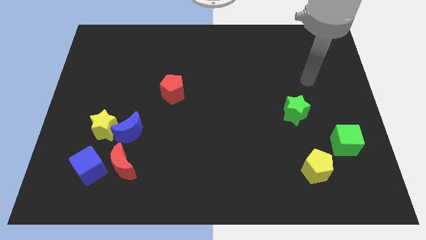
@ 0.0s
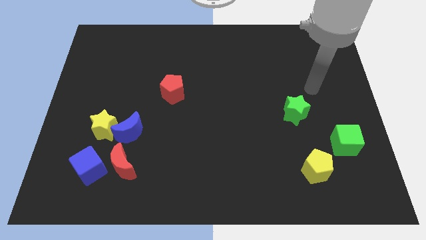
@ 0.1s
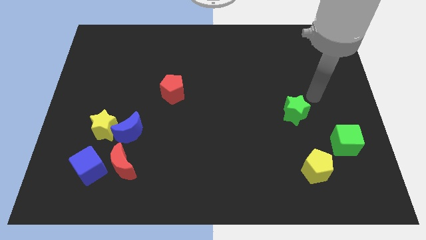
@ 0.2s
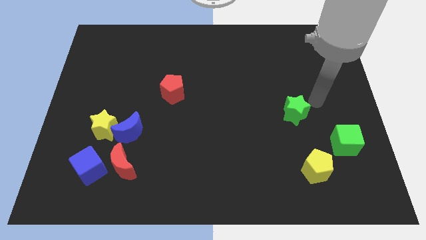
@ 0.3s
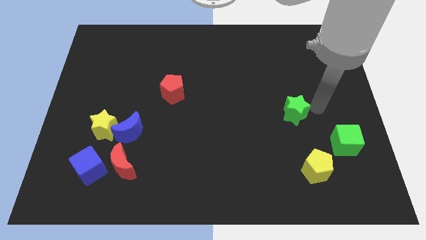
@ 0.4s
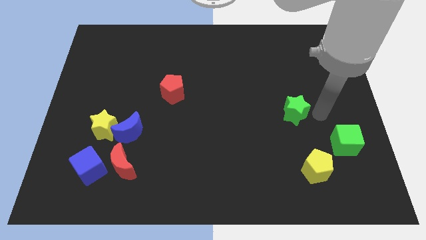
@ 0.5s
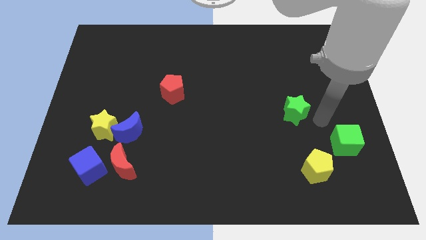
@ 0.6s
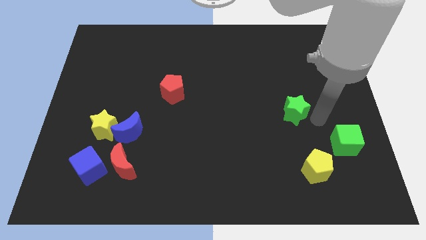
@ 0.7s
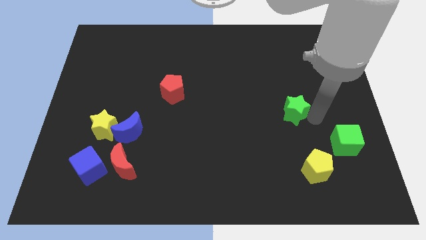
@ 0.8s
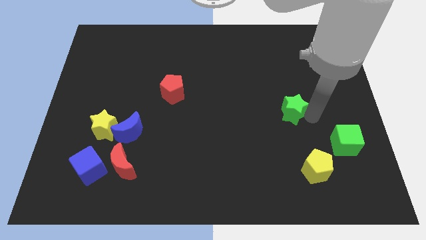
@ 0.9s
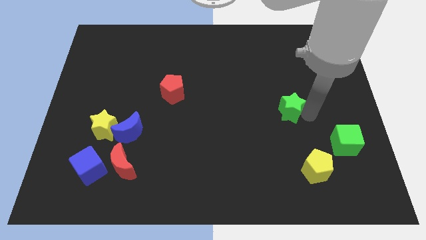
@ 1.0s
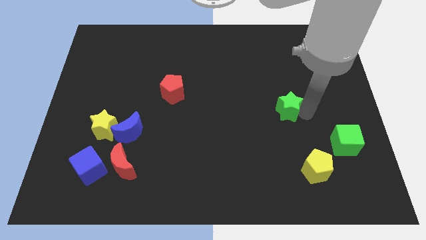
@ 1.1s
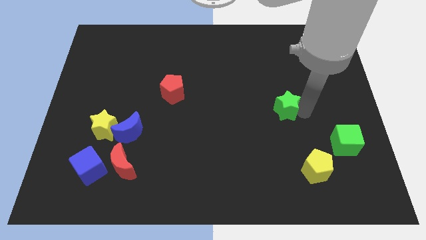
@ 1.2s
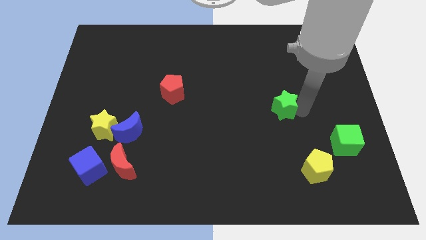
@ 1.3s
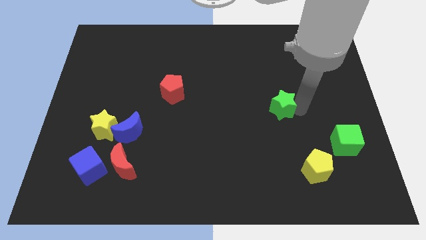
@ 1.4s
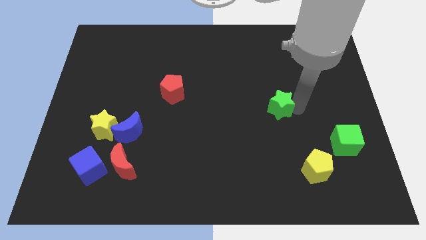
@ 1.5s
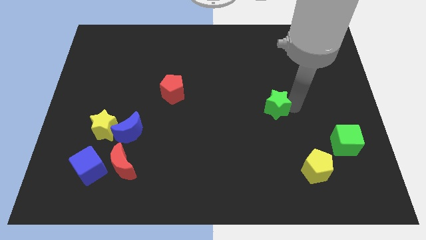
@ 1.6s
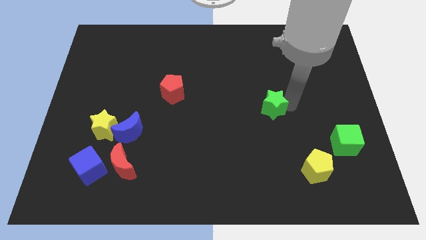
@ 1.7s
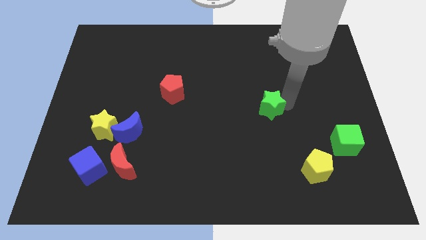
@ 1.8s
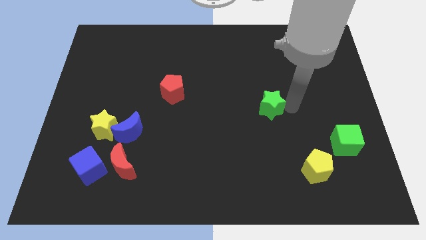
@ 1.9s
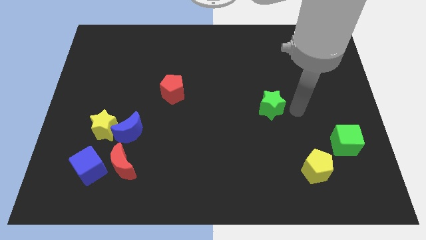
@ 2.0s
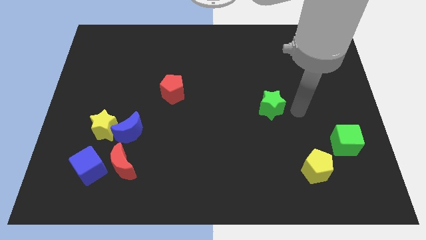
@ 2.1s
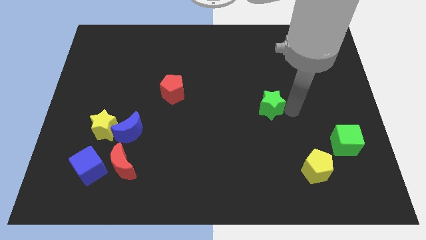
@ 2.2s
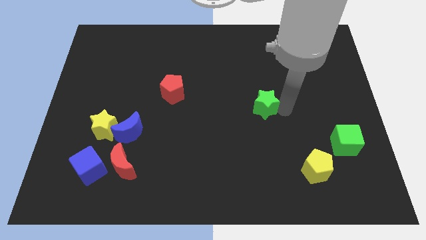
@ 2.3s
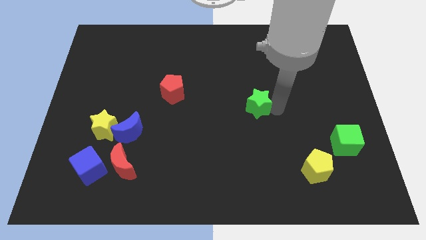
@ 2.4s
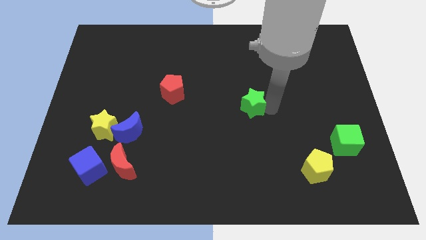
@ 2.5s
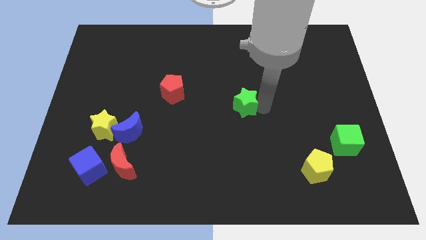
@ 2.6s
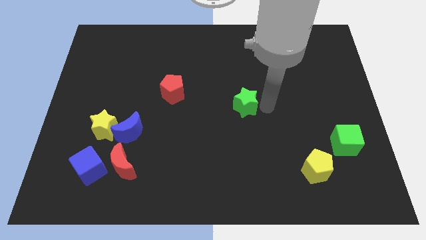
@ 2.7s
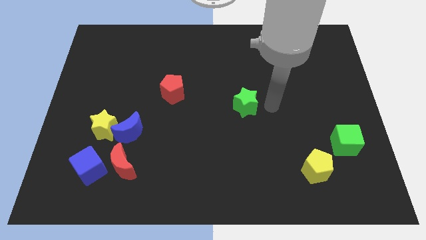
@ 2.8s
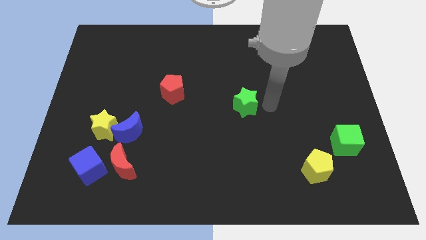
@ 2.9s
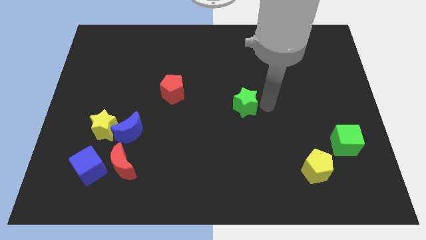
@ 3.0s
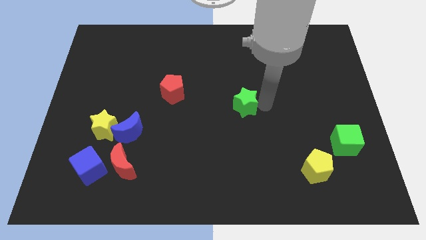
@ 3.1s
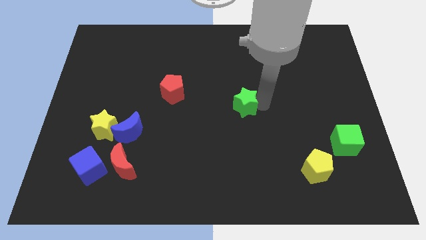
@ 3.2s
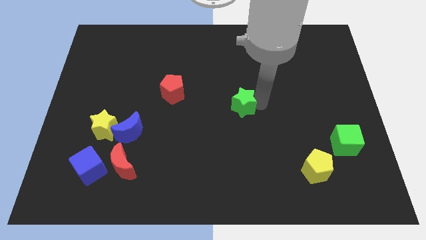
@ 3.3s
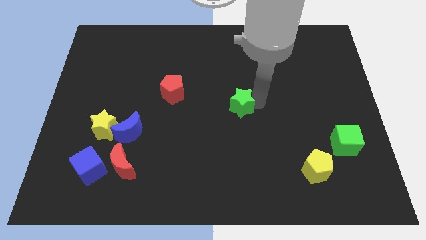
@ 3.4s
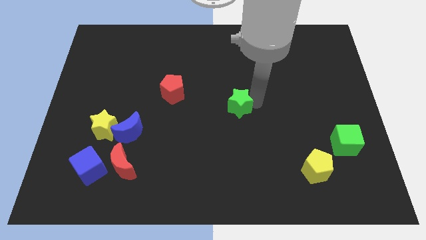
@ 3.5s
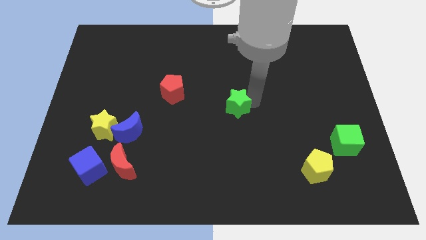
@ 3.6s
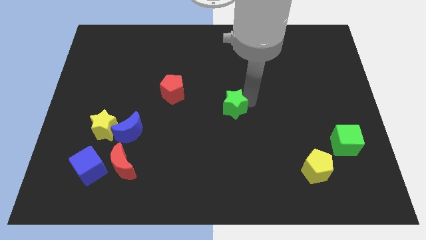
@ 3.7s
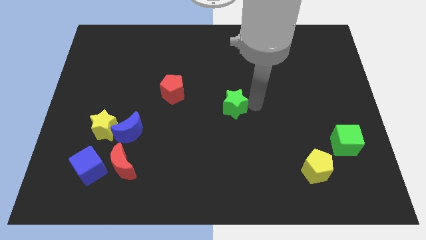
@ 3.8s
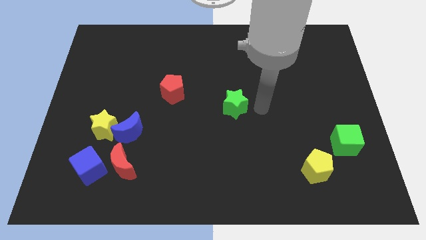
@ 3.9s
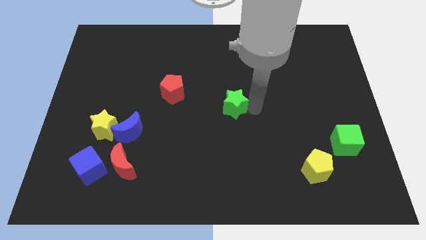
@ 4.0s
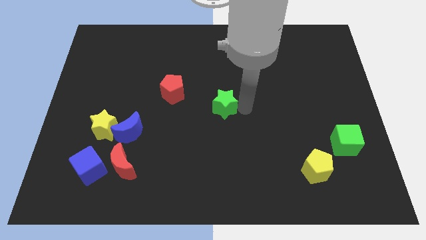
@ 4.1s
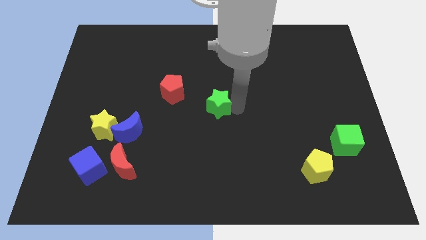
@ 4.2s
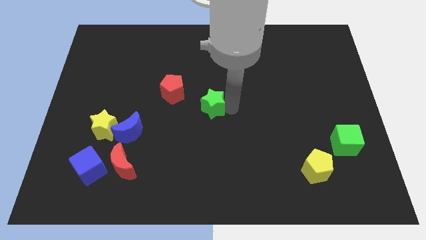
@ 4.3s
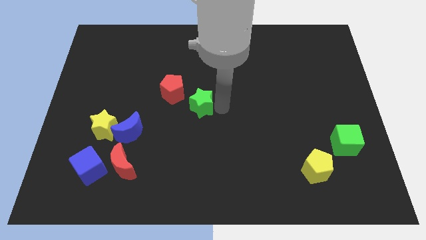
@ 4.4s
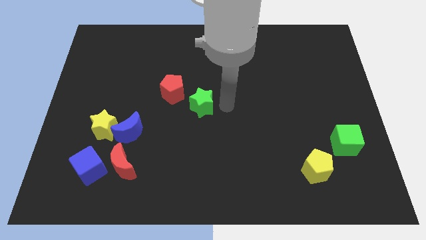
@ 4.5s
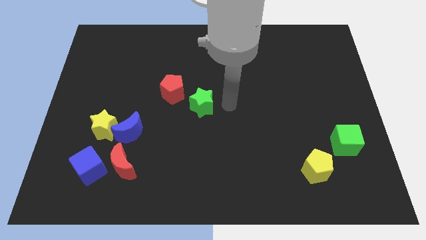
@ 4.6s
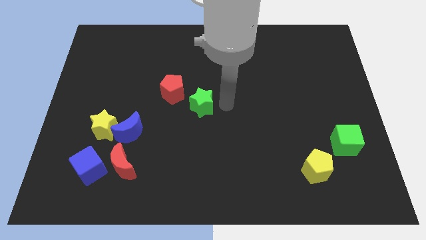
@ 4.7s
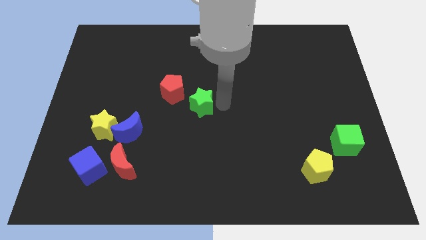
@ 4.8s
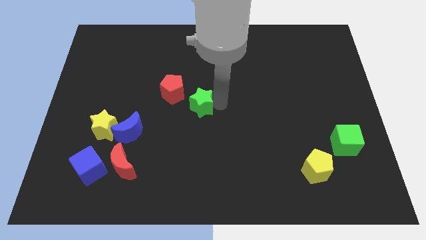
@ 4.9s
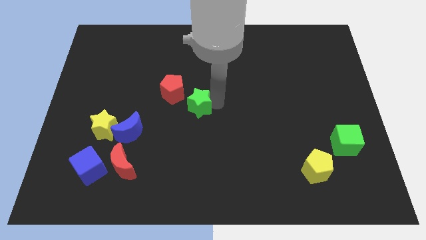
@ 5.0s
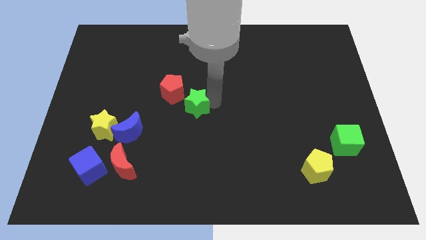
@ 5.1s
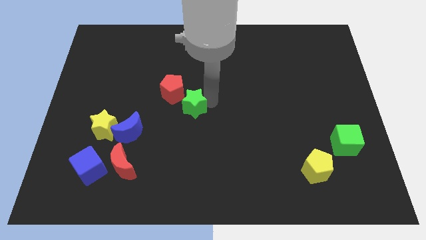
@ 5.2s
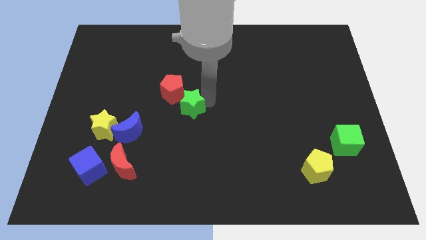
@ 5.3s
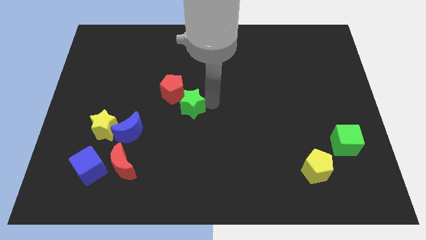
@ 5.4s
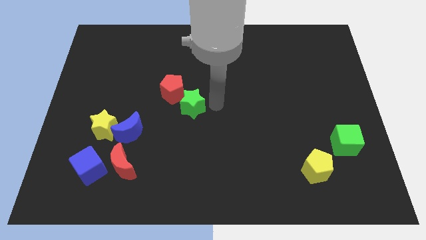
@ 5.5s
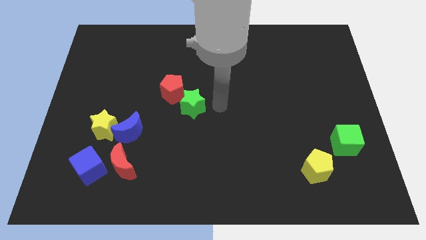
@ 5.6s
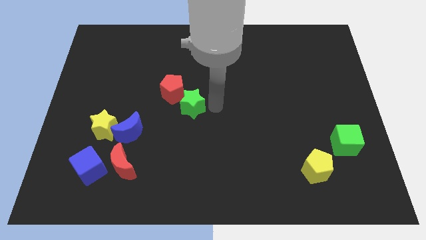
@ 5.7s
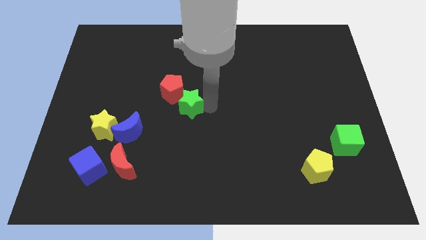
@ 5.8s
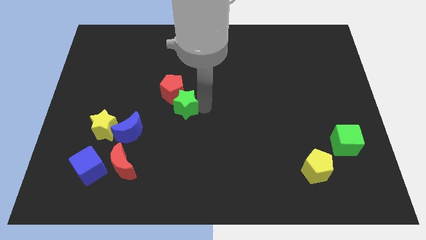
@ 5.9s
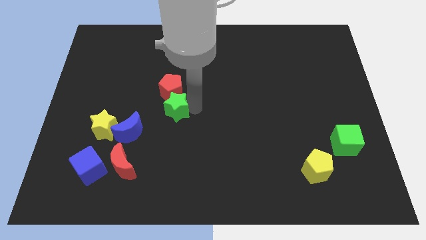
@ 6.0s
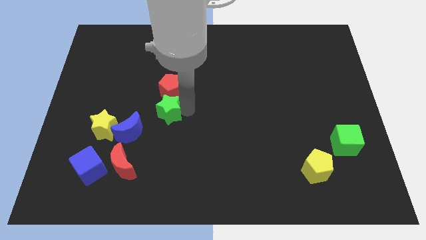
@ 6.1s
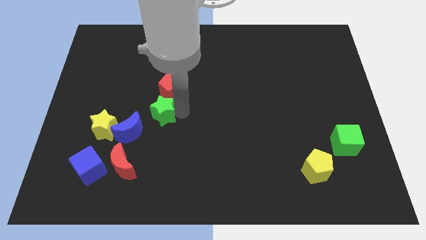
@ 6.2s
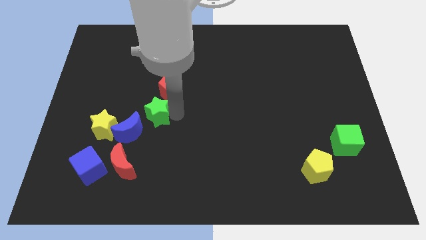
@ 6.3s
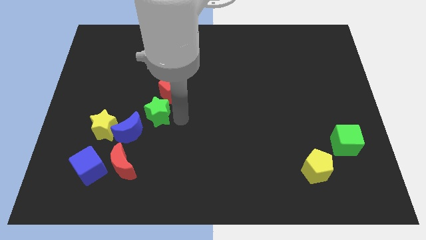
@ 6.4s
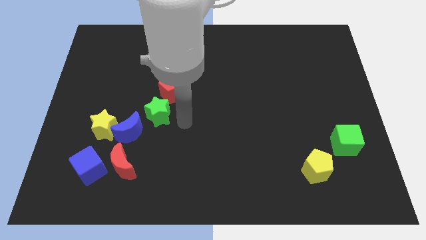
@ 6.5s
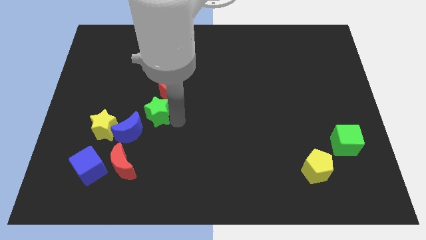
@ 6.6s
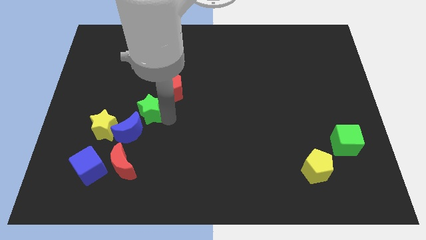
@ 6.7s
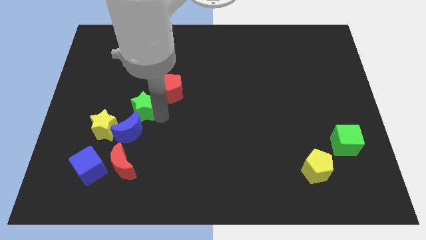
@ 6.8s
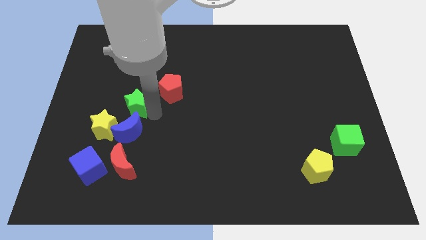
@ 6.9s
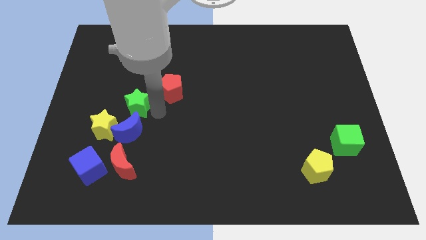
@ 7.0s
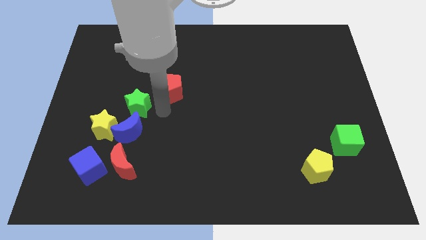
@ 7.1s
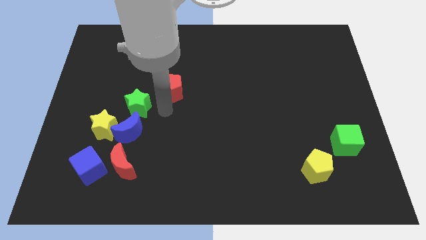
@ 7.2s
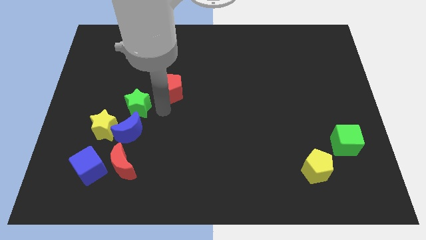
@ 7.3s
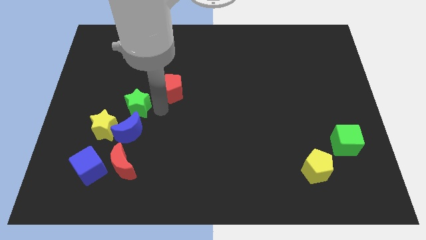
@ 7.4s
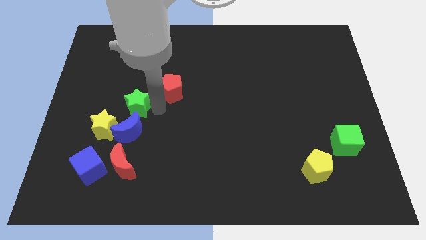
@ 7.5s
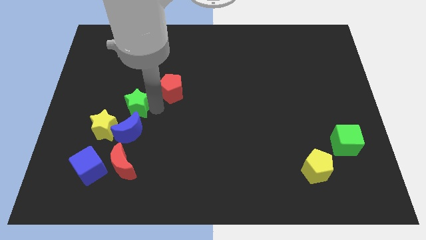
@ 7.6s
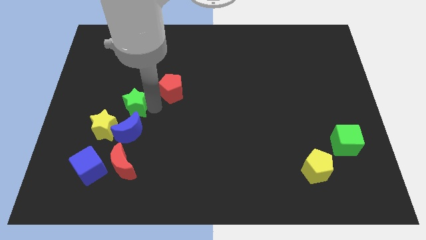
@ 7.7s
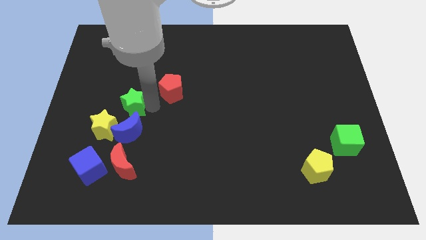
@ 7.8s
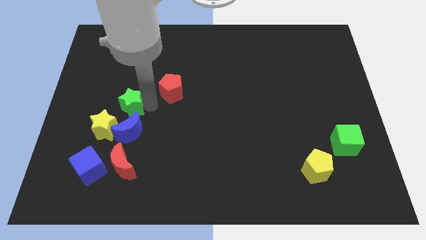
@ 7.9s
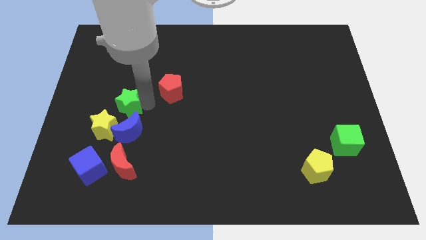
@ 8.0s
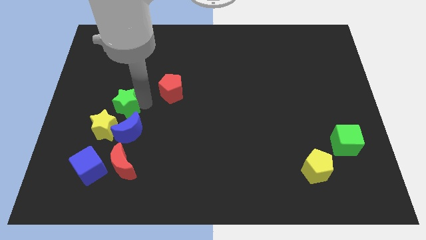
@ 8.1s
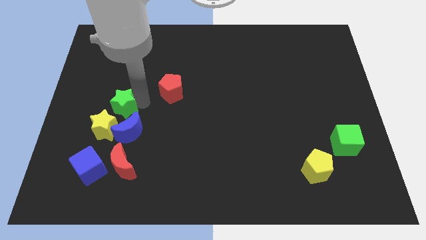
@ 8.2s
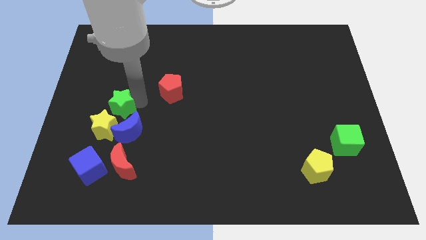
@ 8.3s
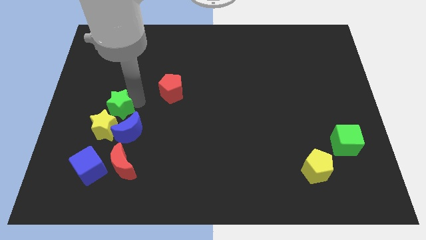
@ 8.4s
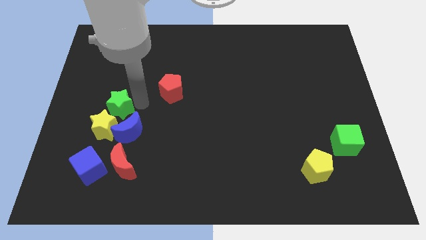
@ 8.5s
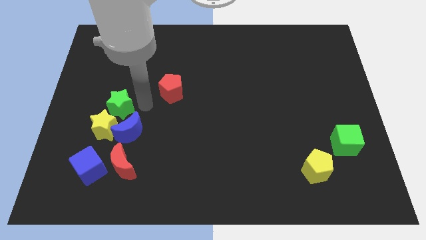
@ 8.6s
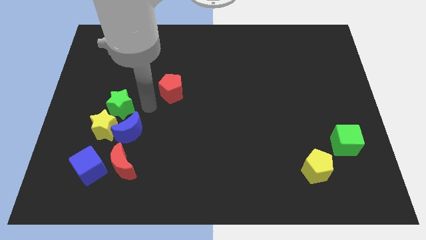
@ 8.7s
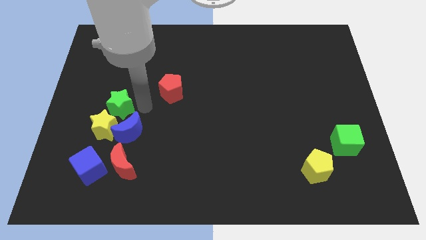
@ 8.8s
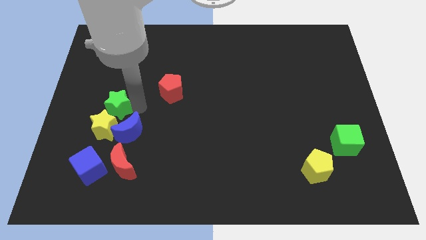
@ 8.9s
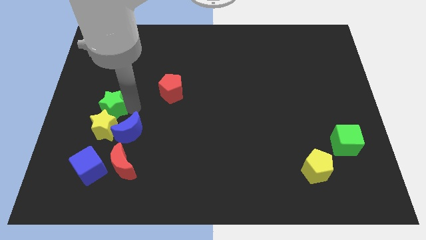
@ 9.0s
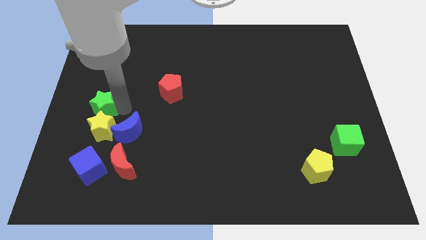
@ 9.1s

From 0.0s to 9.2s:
put the green star to the left side of the board
